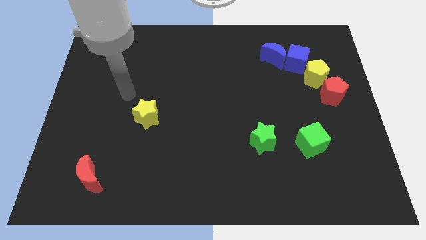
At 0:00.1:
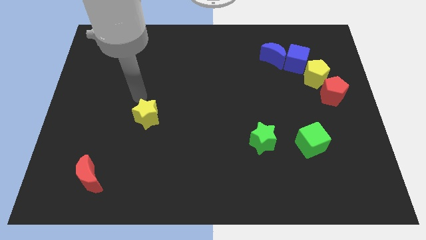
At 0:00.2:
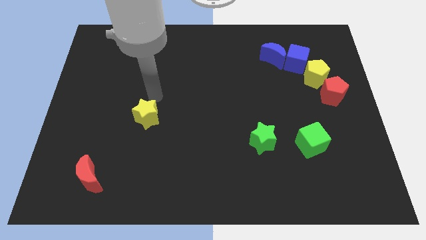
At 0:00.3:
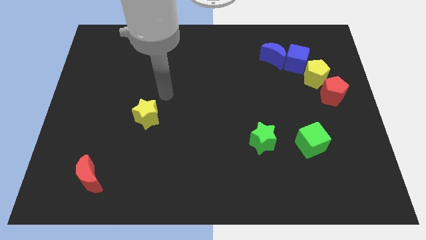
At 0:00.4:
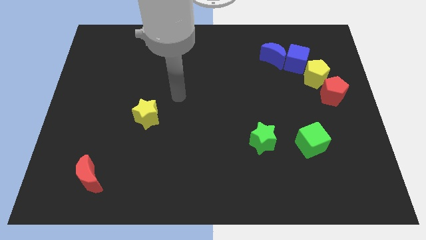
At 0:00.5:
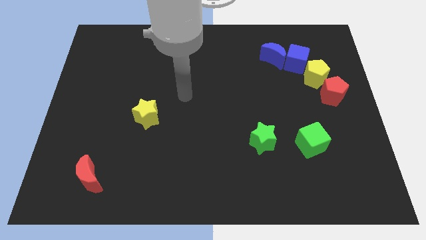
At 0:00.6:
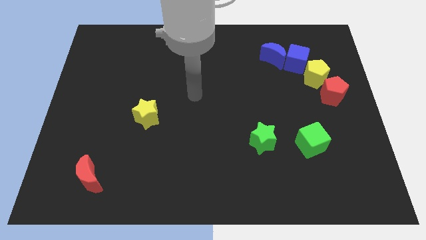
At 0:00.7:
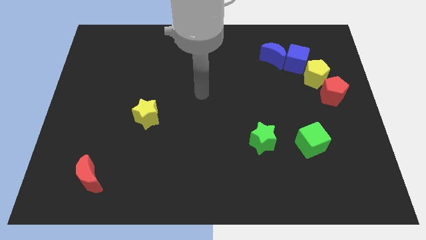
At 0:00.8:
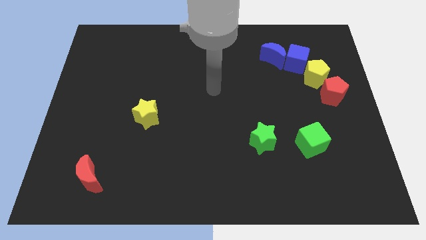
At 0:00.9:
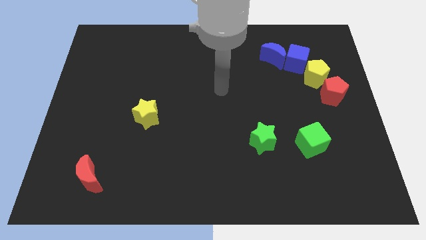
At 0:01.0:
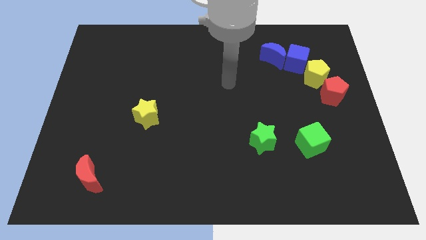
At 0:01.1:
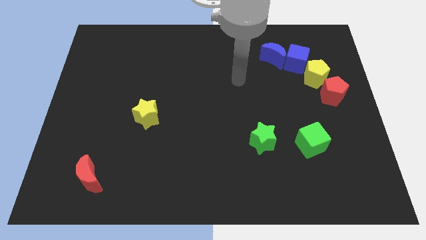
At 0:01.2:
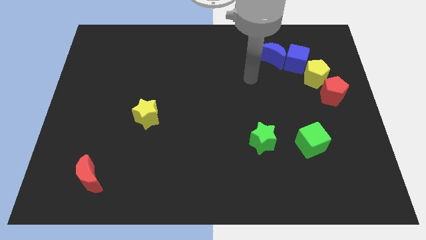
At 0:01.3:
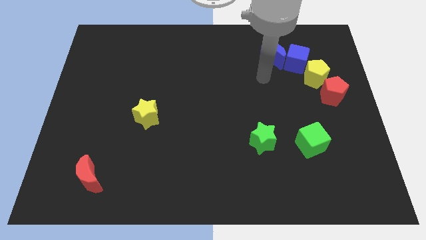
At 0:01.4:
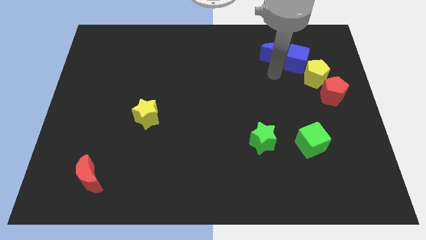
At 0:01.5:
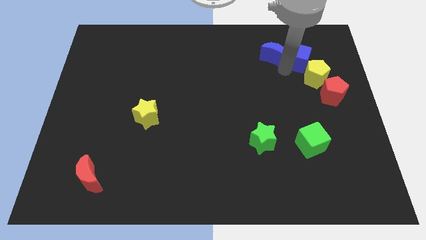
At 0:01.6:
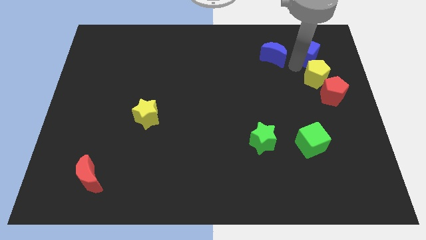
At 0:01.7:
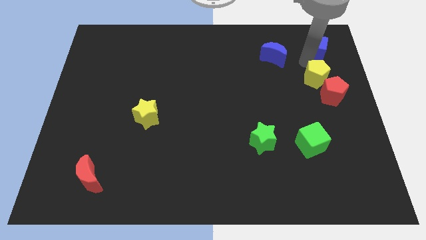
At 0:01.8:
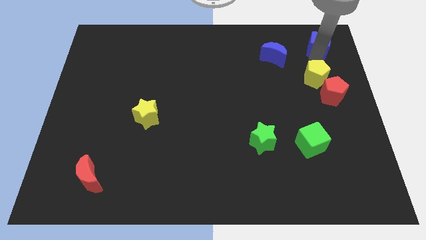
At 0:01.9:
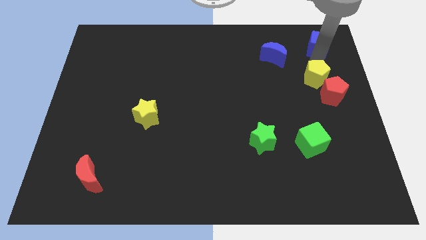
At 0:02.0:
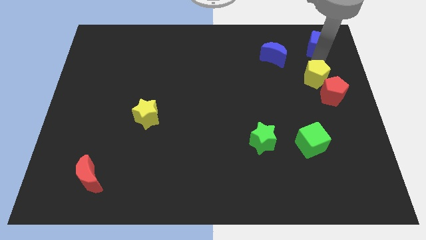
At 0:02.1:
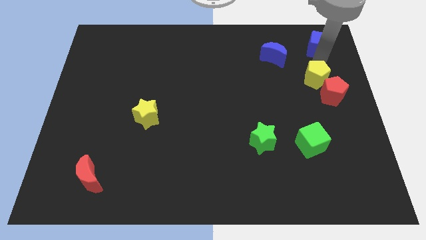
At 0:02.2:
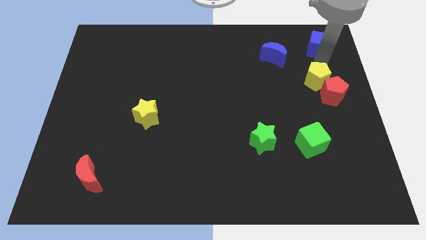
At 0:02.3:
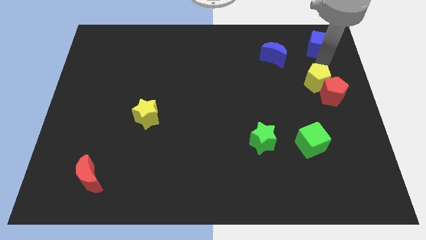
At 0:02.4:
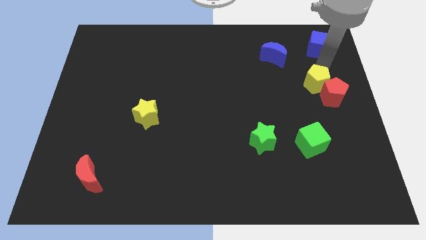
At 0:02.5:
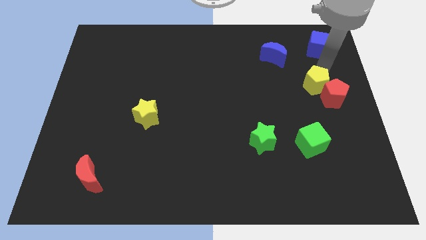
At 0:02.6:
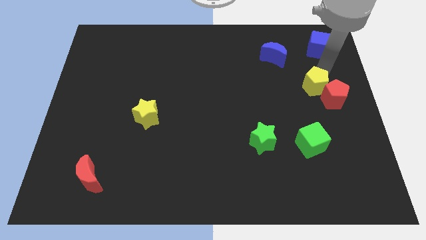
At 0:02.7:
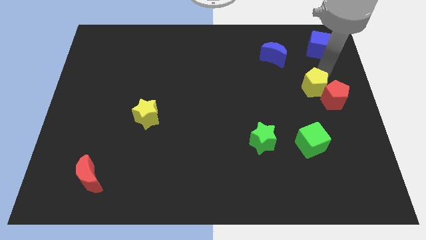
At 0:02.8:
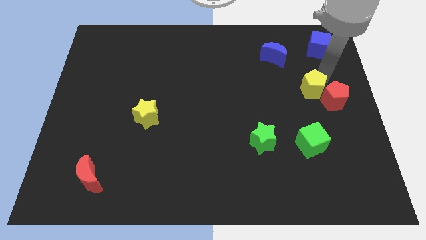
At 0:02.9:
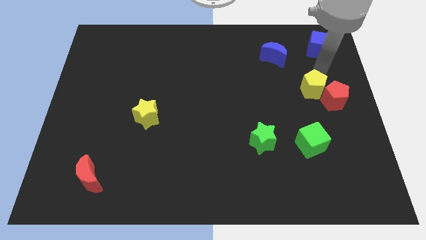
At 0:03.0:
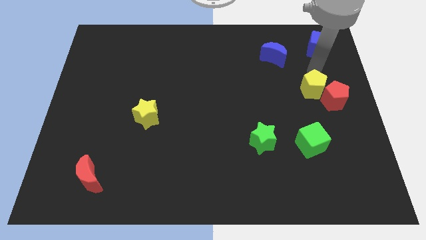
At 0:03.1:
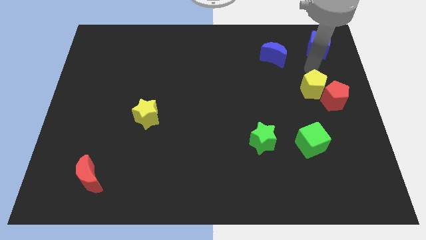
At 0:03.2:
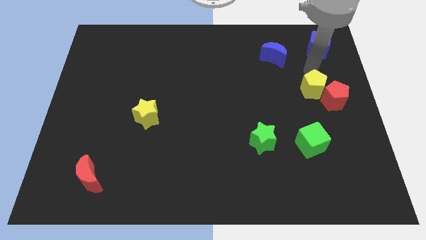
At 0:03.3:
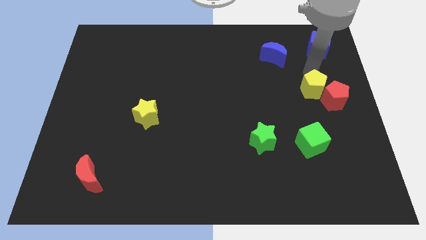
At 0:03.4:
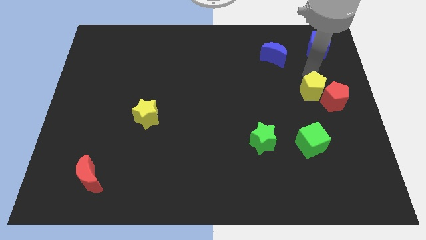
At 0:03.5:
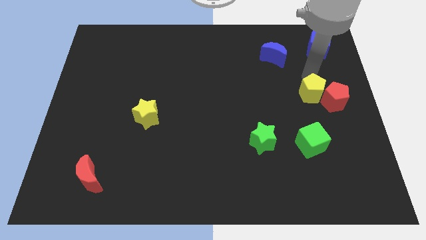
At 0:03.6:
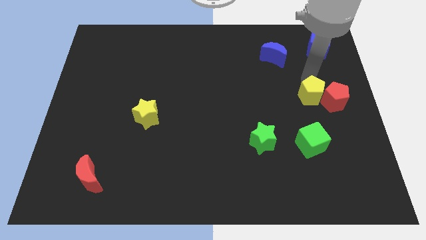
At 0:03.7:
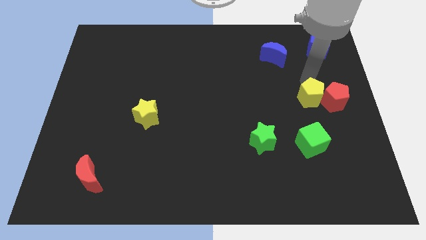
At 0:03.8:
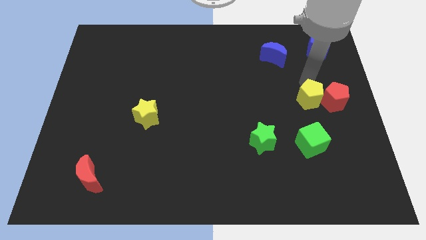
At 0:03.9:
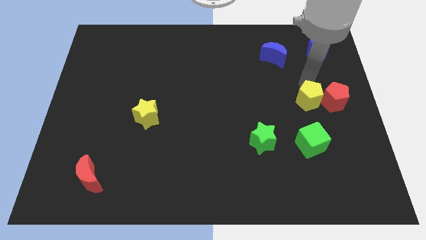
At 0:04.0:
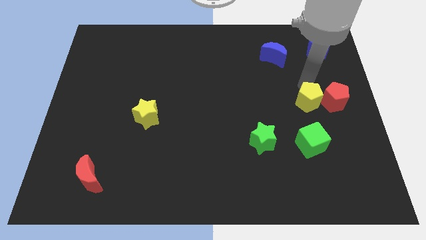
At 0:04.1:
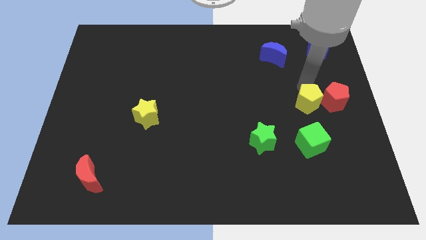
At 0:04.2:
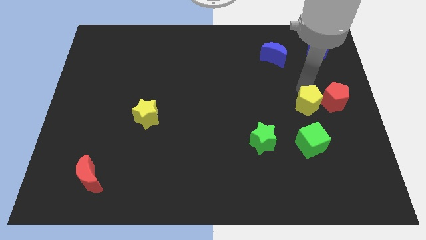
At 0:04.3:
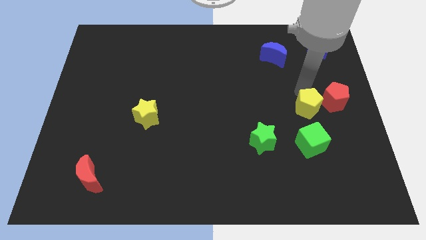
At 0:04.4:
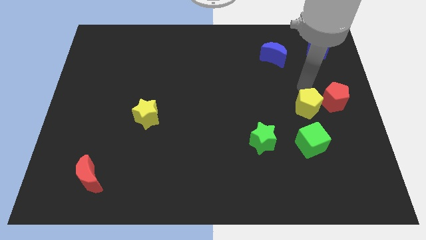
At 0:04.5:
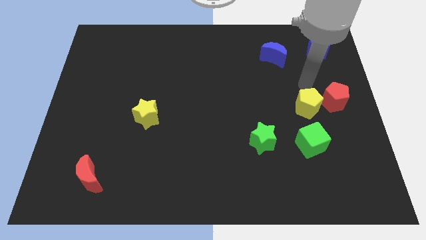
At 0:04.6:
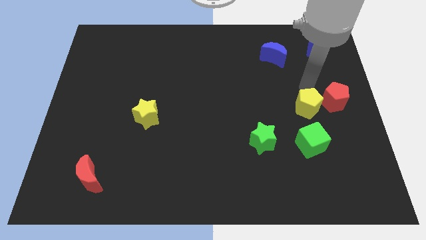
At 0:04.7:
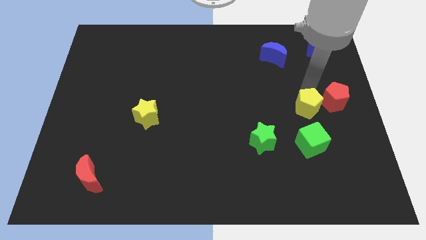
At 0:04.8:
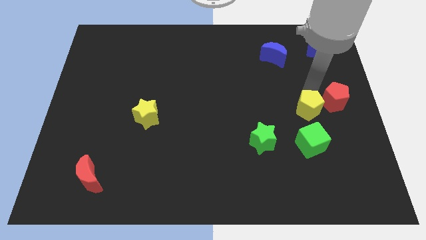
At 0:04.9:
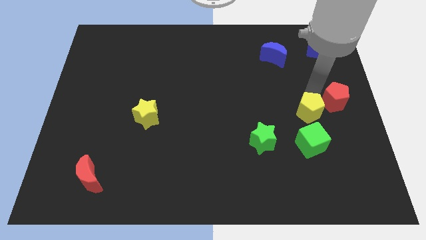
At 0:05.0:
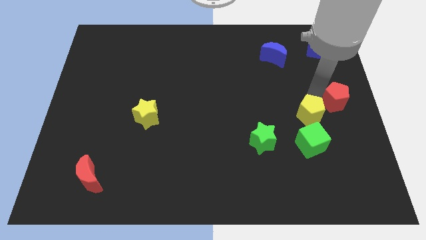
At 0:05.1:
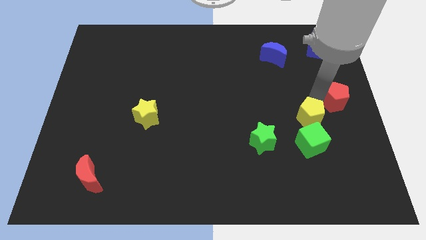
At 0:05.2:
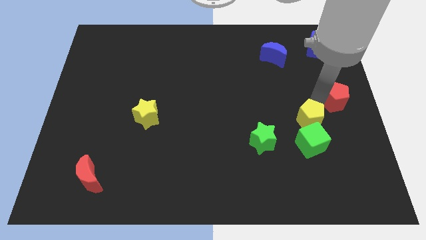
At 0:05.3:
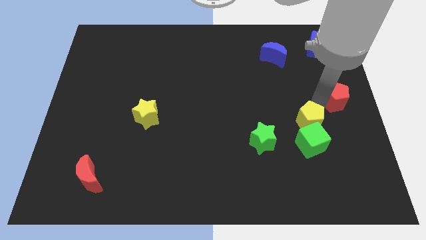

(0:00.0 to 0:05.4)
slide the yellow pentagon to the green cube

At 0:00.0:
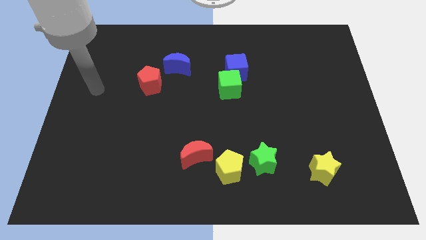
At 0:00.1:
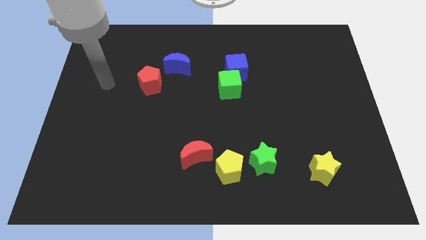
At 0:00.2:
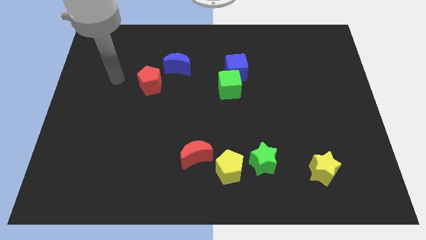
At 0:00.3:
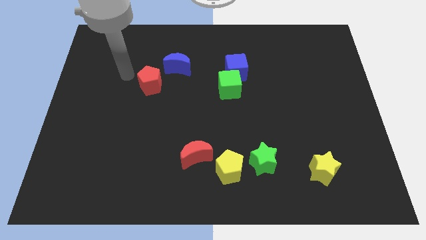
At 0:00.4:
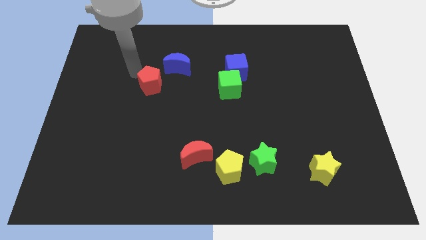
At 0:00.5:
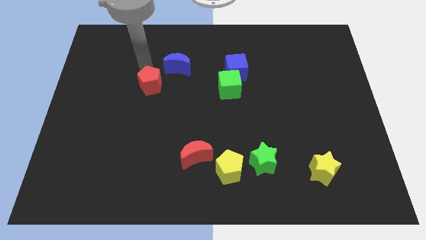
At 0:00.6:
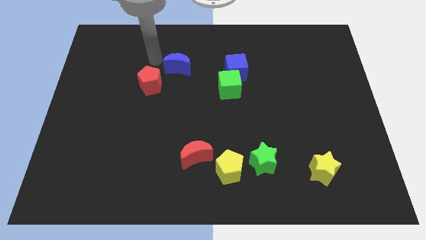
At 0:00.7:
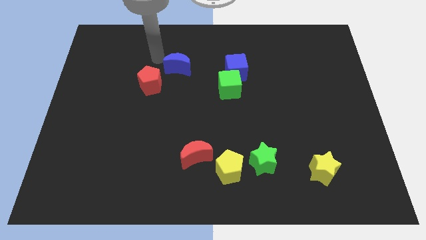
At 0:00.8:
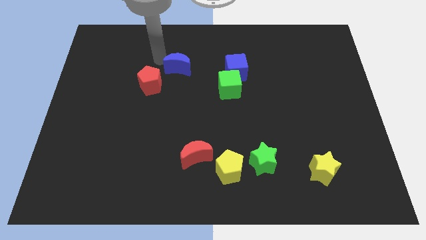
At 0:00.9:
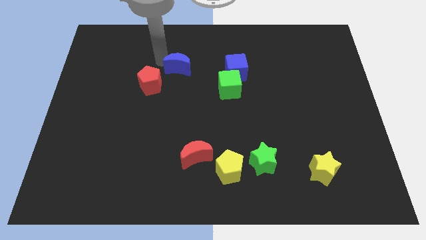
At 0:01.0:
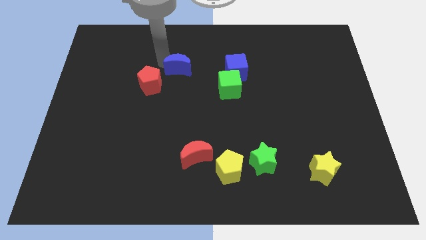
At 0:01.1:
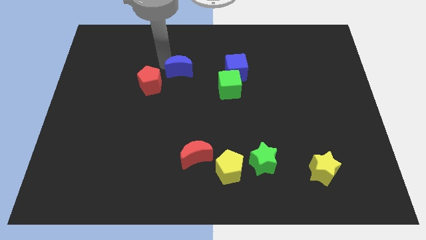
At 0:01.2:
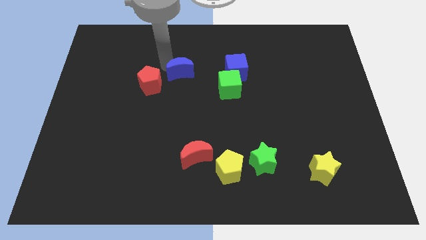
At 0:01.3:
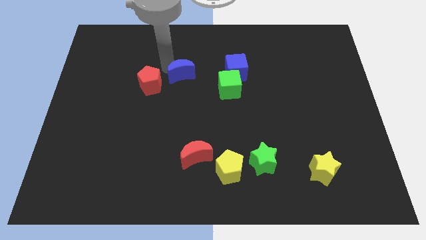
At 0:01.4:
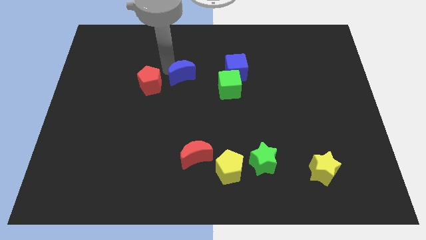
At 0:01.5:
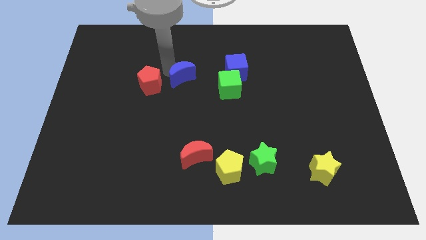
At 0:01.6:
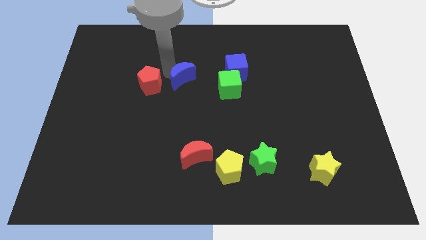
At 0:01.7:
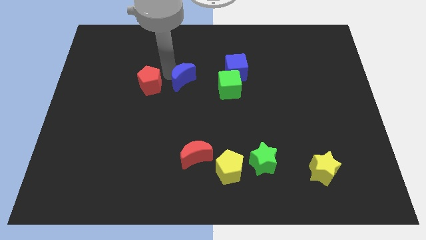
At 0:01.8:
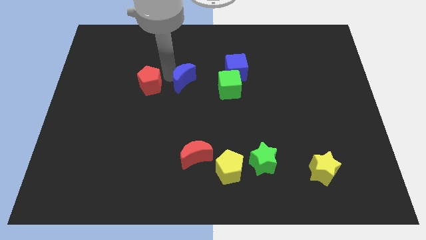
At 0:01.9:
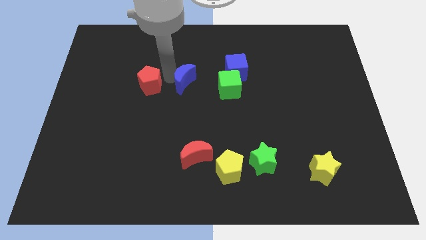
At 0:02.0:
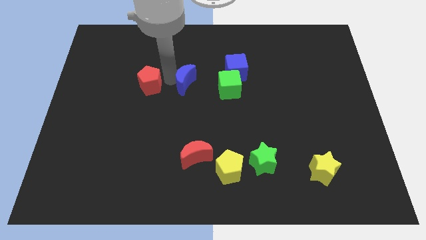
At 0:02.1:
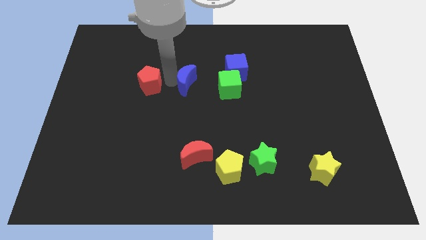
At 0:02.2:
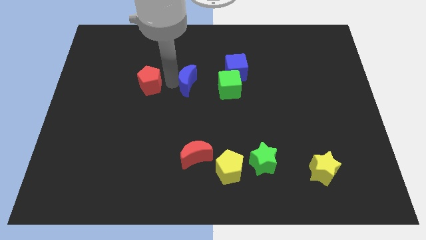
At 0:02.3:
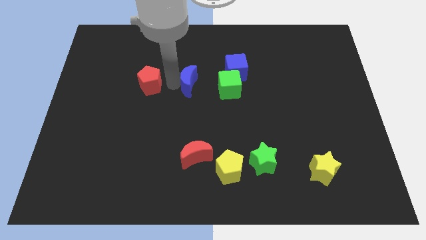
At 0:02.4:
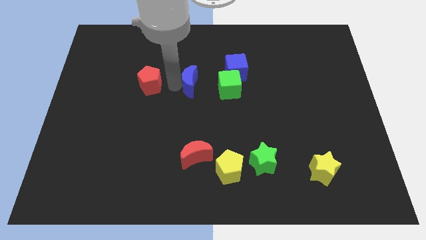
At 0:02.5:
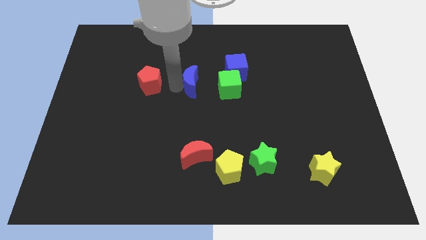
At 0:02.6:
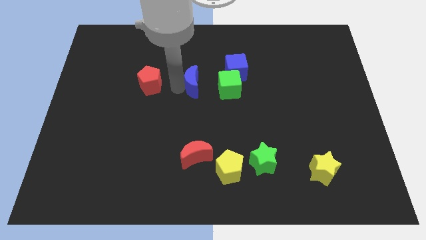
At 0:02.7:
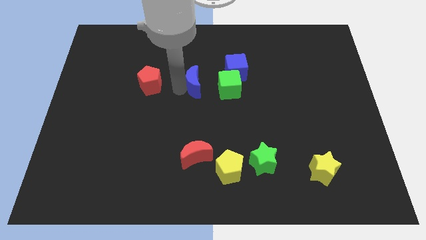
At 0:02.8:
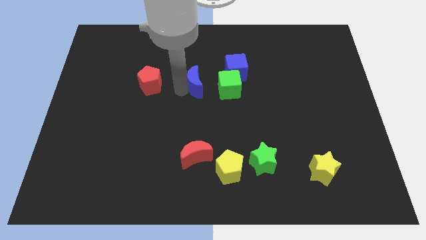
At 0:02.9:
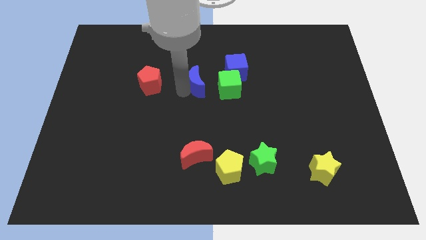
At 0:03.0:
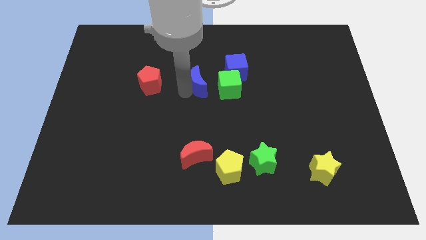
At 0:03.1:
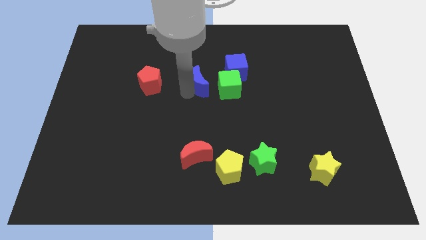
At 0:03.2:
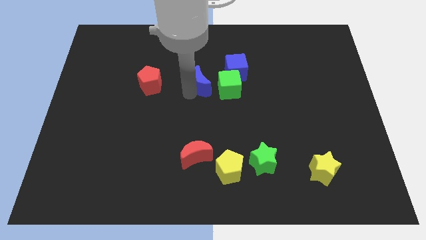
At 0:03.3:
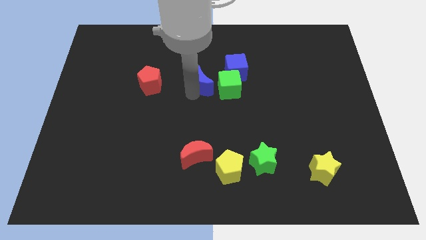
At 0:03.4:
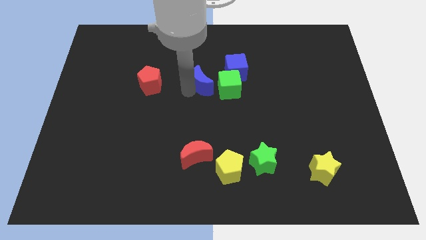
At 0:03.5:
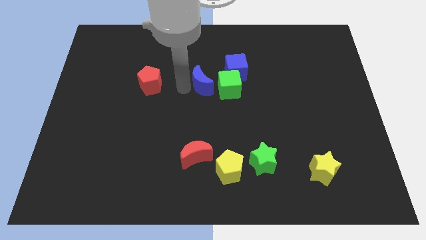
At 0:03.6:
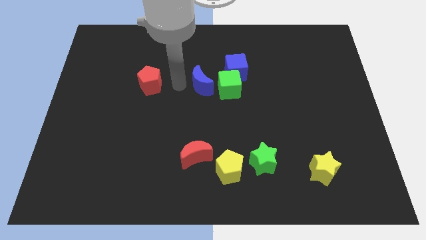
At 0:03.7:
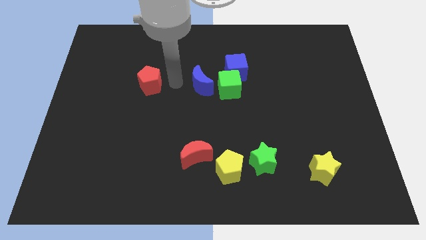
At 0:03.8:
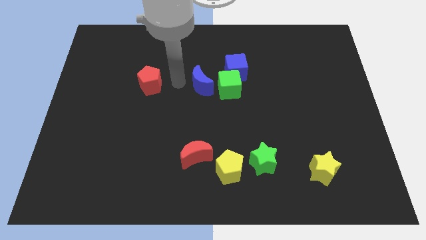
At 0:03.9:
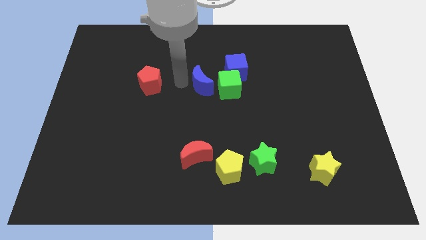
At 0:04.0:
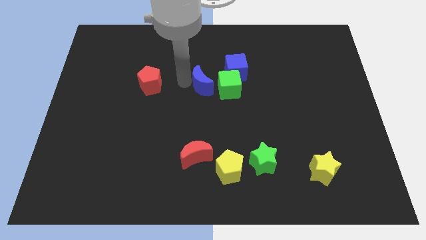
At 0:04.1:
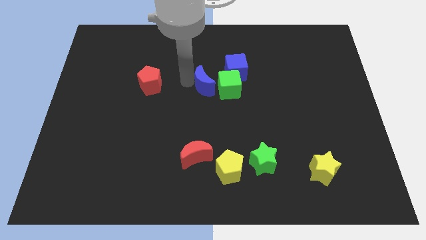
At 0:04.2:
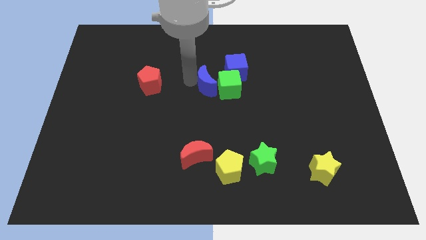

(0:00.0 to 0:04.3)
push the blue moon next to the green cube
